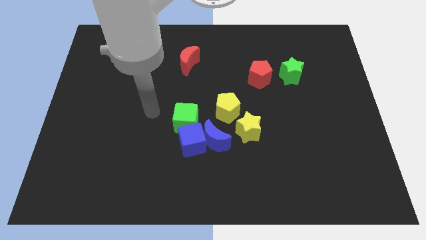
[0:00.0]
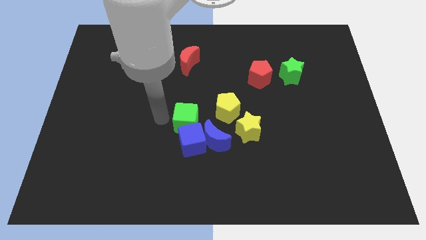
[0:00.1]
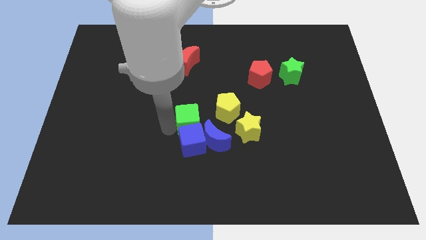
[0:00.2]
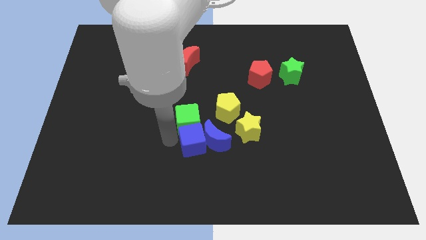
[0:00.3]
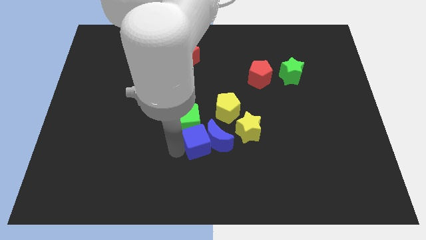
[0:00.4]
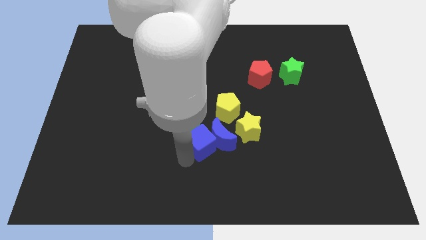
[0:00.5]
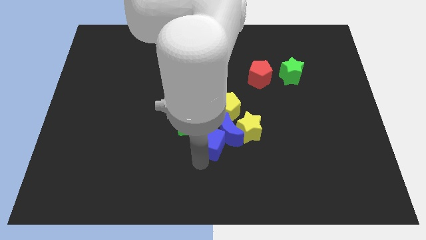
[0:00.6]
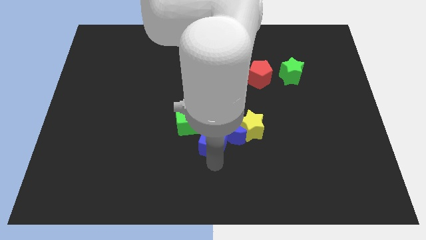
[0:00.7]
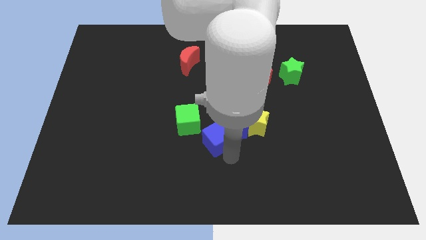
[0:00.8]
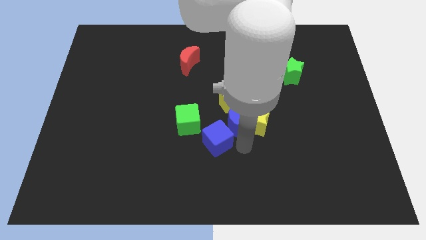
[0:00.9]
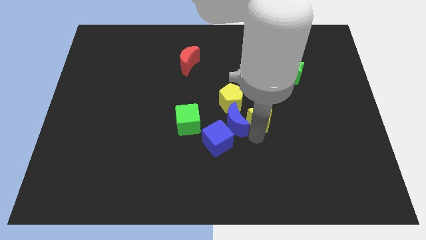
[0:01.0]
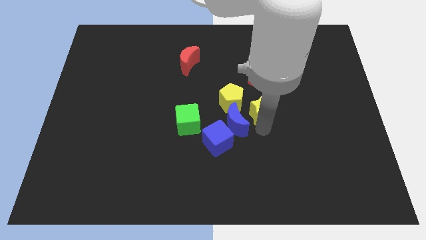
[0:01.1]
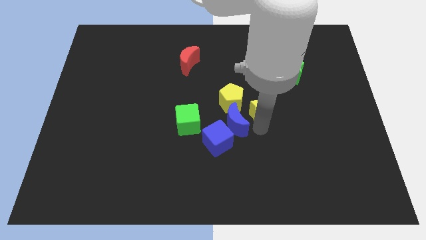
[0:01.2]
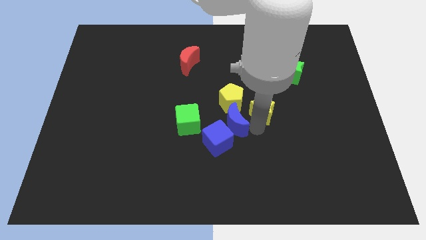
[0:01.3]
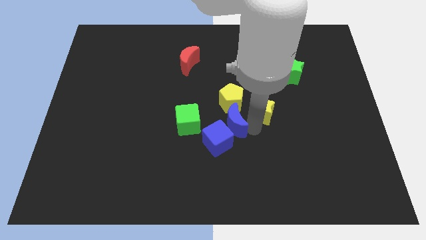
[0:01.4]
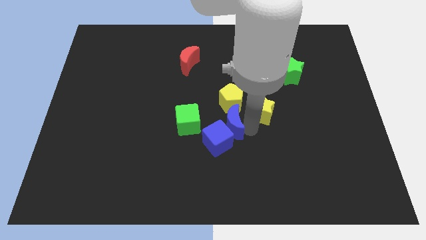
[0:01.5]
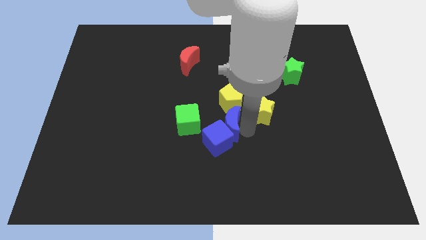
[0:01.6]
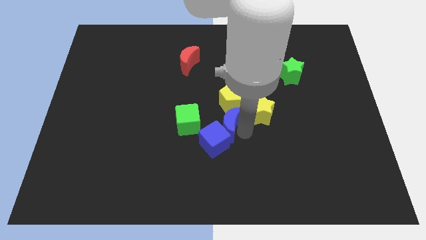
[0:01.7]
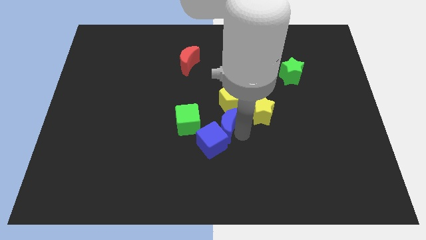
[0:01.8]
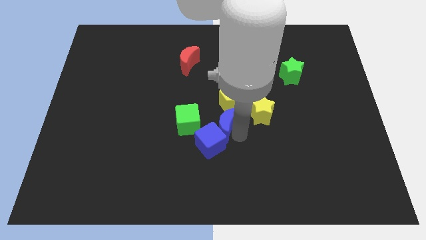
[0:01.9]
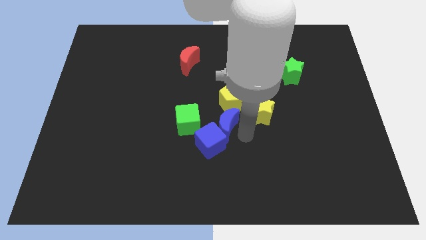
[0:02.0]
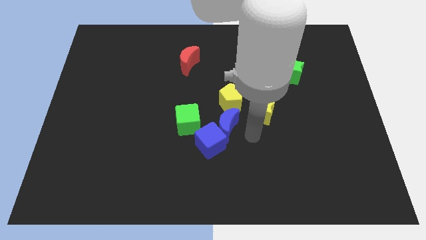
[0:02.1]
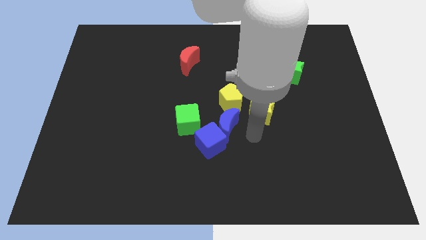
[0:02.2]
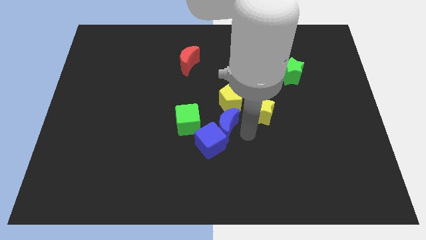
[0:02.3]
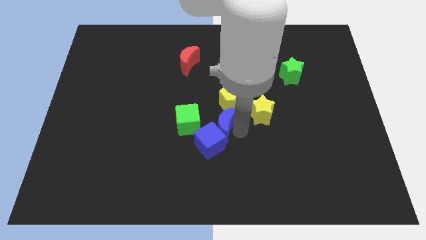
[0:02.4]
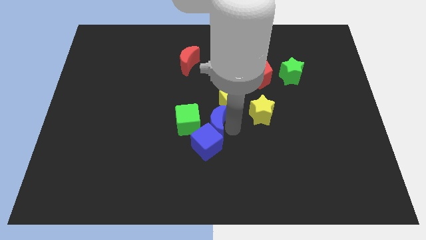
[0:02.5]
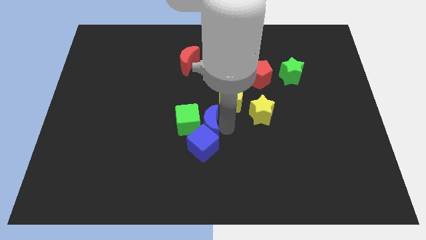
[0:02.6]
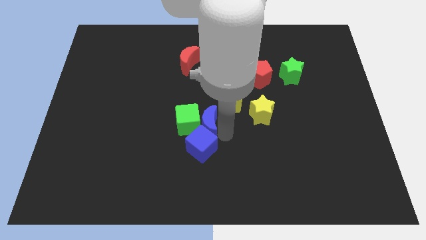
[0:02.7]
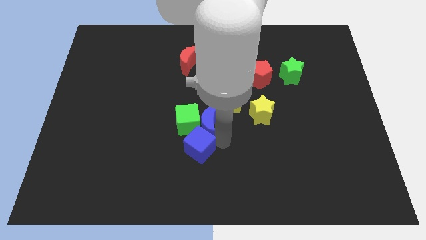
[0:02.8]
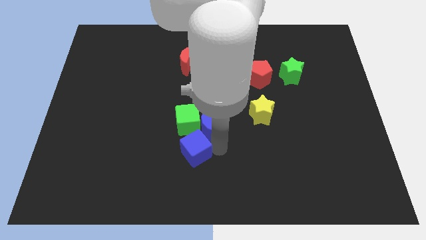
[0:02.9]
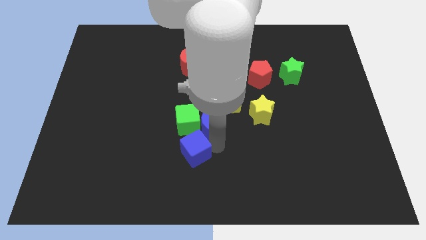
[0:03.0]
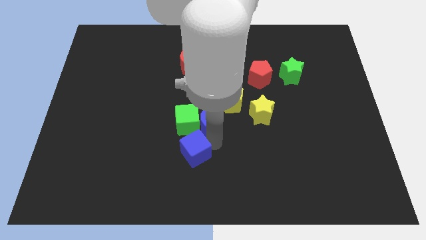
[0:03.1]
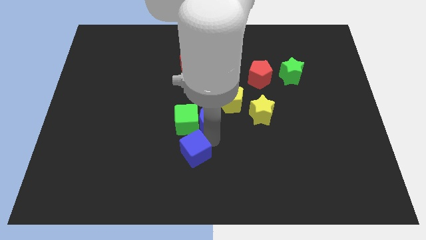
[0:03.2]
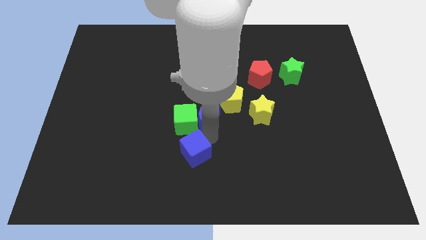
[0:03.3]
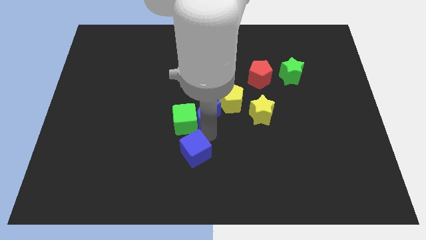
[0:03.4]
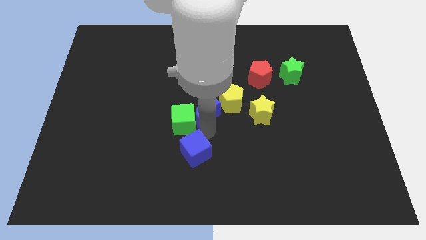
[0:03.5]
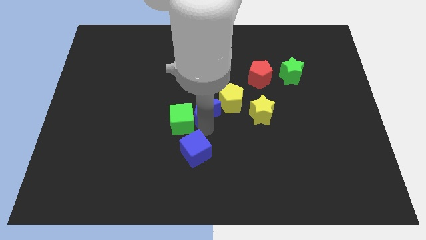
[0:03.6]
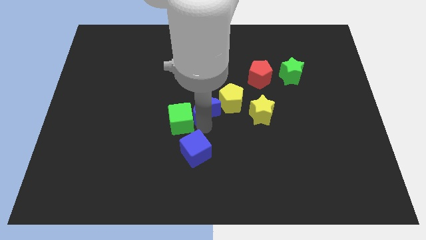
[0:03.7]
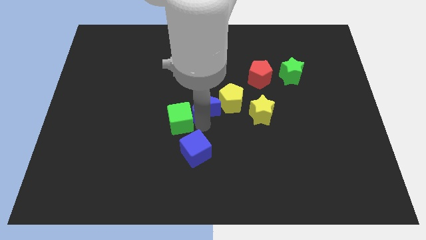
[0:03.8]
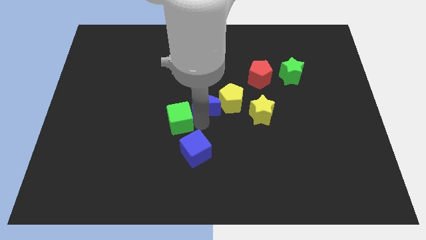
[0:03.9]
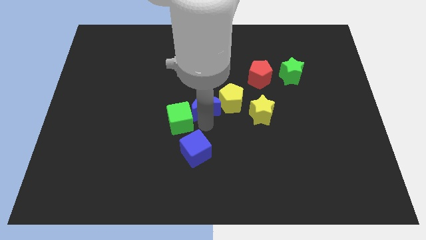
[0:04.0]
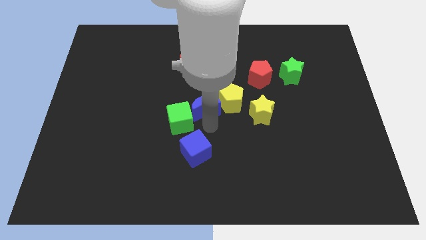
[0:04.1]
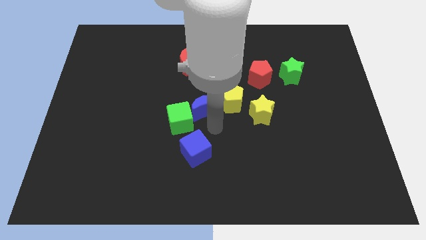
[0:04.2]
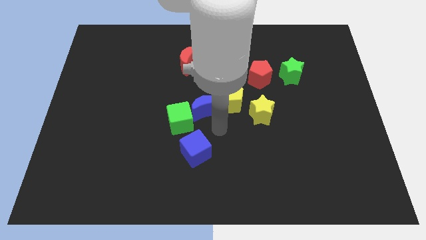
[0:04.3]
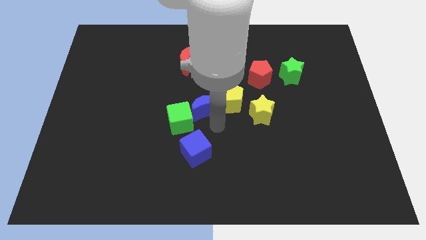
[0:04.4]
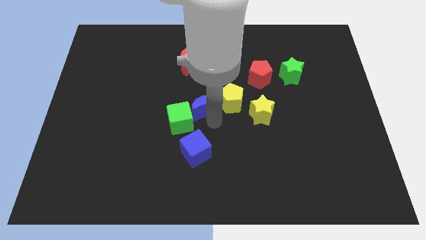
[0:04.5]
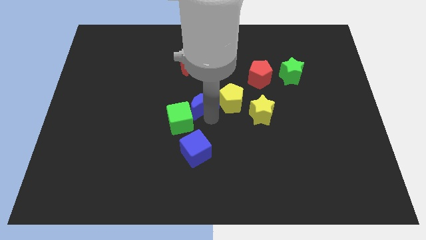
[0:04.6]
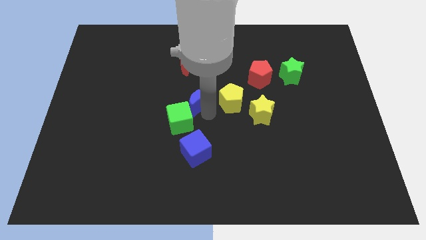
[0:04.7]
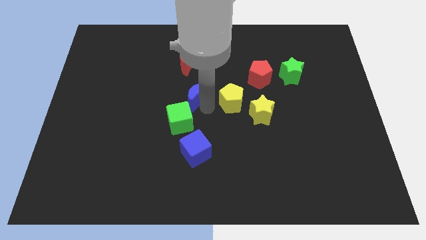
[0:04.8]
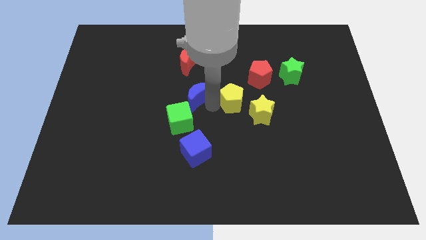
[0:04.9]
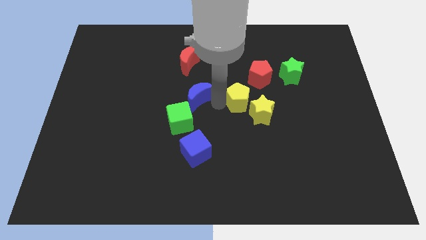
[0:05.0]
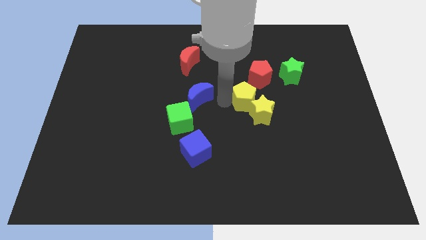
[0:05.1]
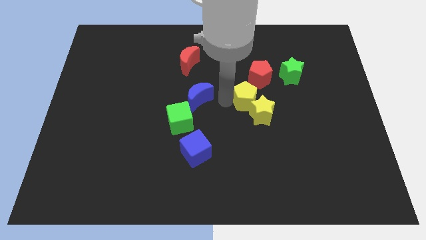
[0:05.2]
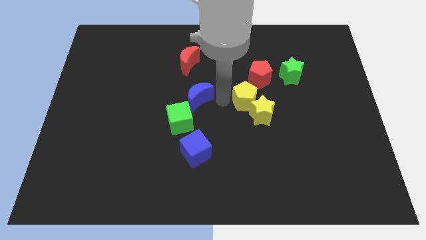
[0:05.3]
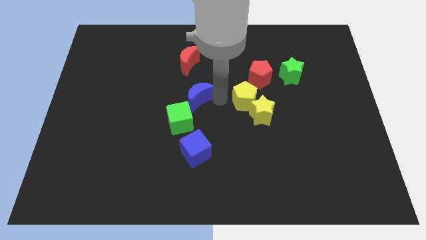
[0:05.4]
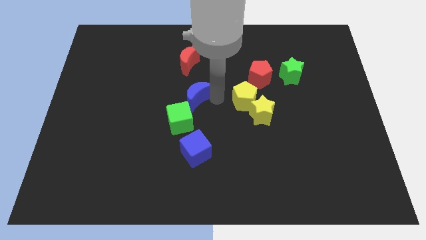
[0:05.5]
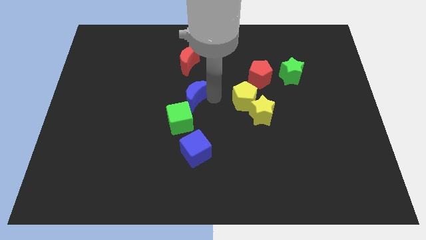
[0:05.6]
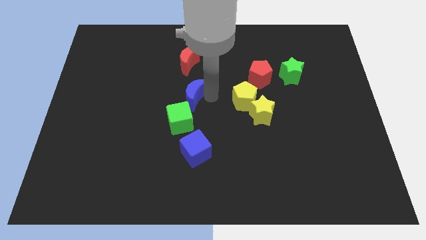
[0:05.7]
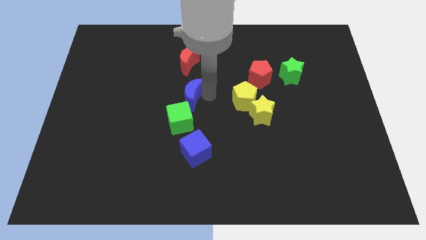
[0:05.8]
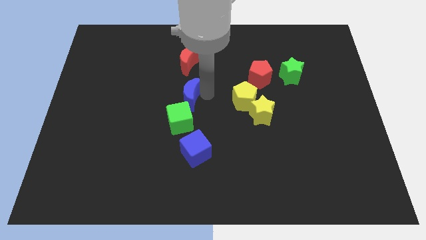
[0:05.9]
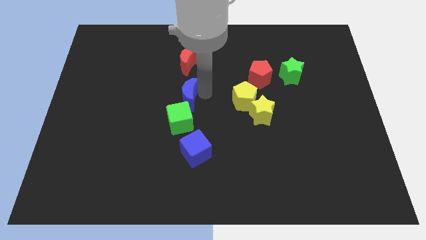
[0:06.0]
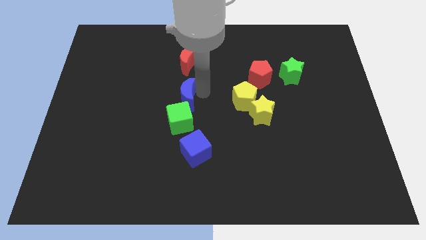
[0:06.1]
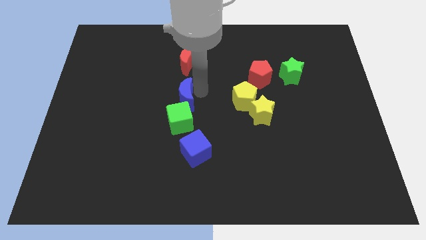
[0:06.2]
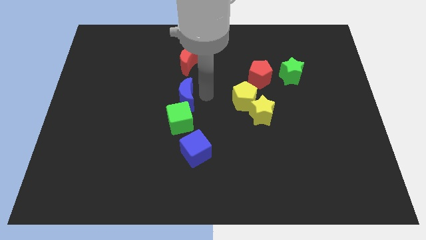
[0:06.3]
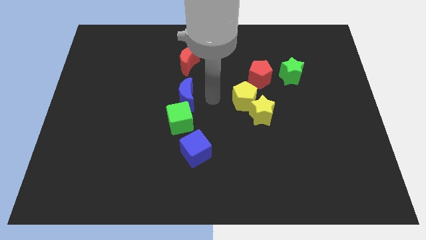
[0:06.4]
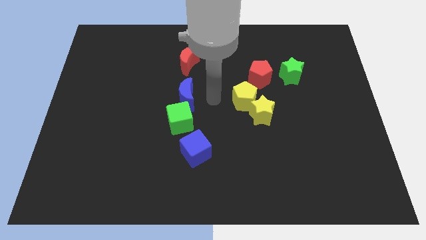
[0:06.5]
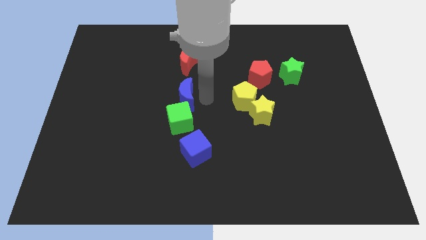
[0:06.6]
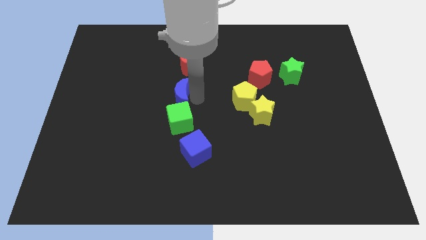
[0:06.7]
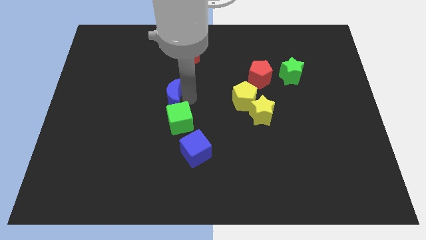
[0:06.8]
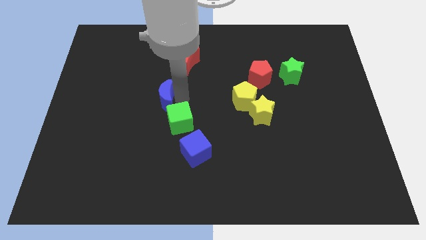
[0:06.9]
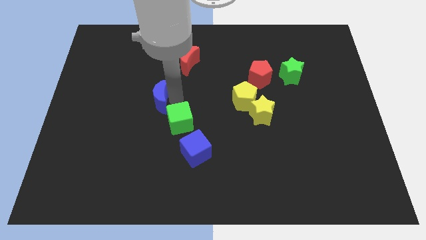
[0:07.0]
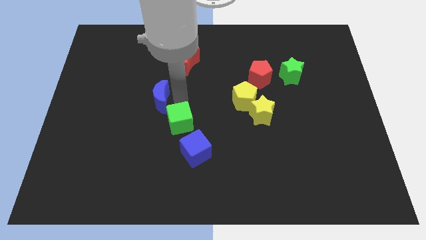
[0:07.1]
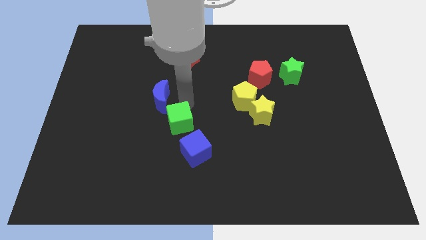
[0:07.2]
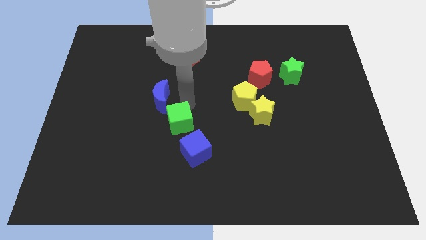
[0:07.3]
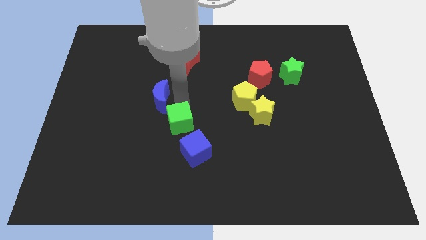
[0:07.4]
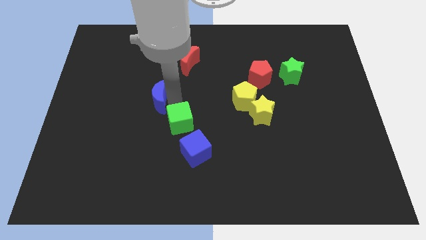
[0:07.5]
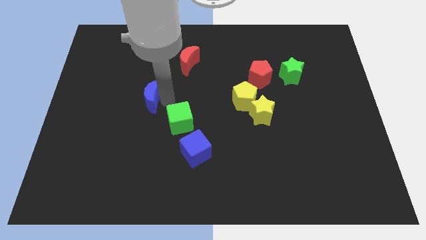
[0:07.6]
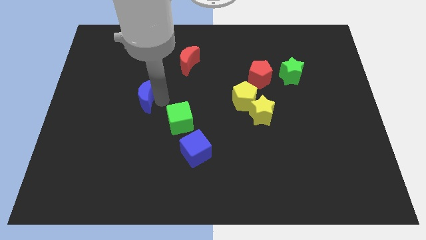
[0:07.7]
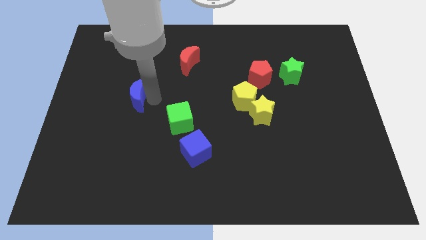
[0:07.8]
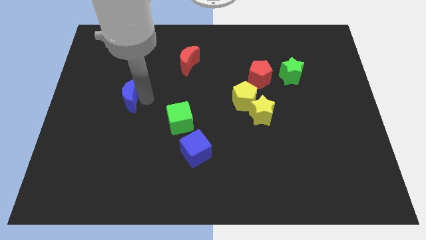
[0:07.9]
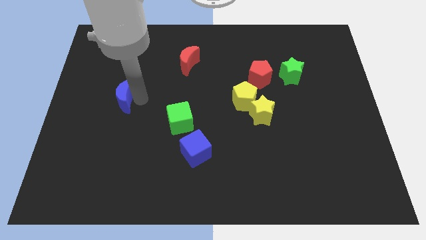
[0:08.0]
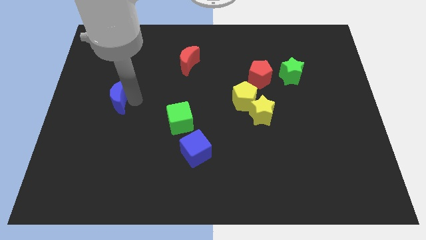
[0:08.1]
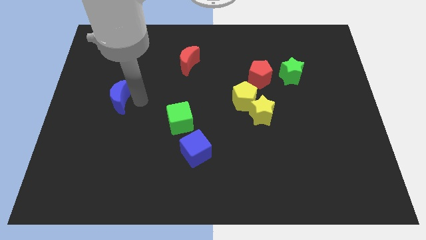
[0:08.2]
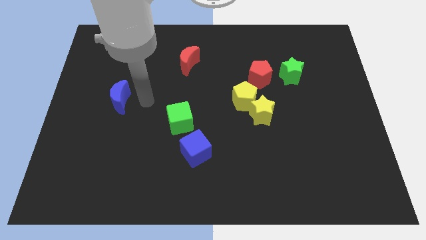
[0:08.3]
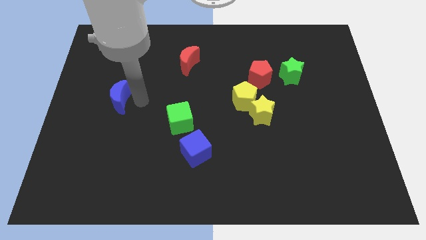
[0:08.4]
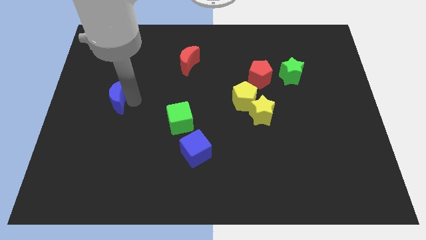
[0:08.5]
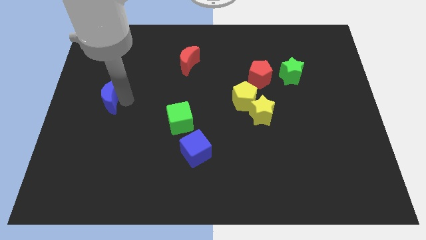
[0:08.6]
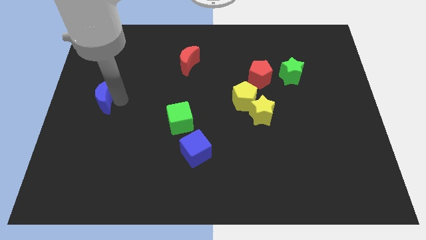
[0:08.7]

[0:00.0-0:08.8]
put the blue moon to the left side
